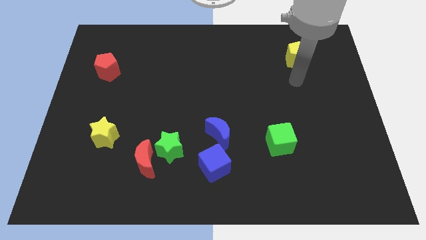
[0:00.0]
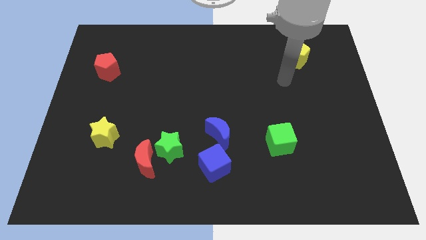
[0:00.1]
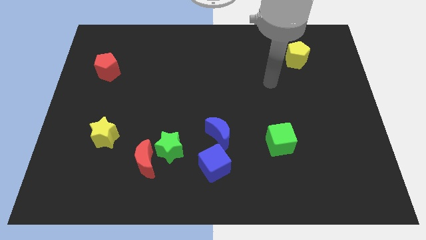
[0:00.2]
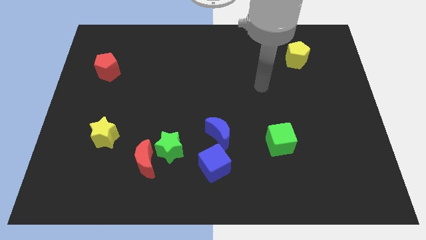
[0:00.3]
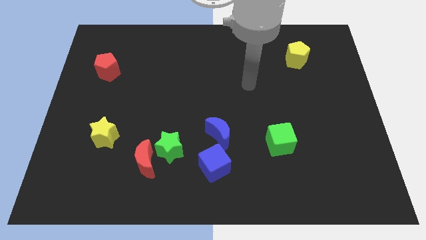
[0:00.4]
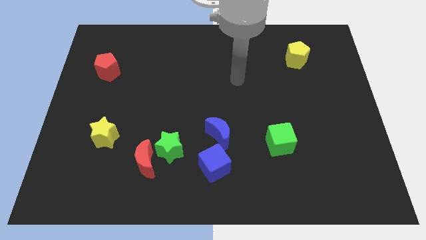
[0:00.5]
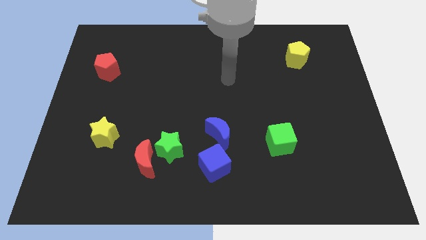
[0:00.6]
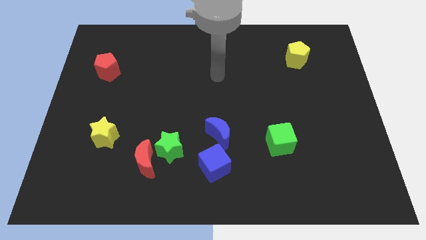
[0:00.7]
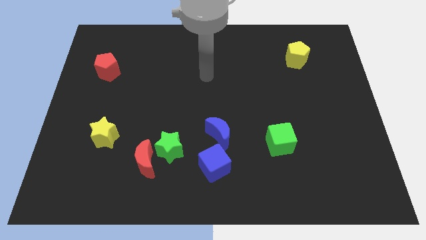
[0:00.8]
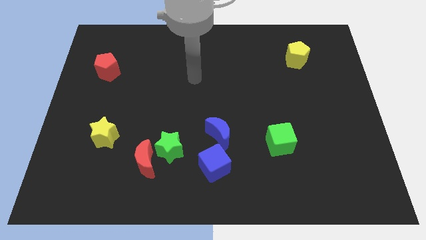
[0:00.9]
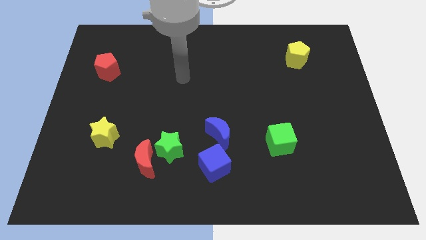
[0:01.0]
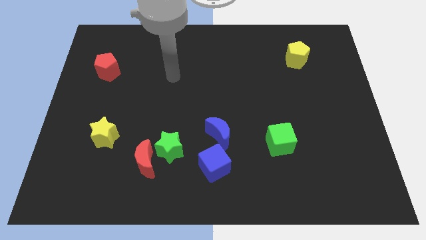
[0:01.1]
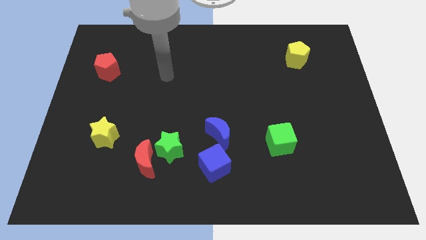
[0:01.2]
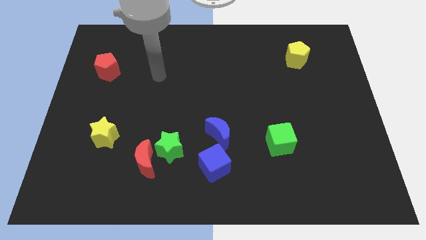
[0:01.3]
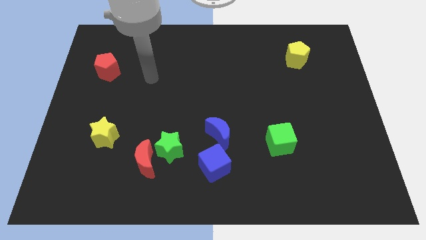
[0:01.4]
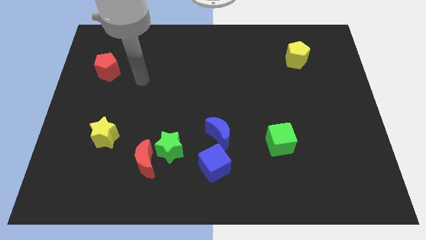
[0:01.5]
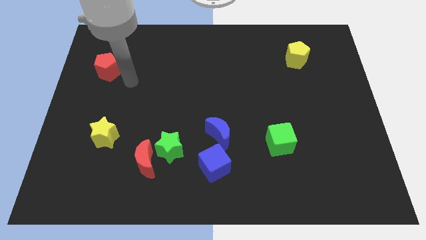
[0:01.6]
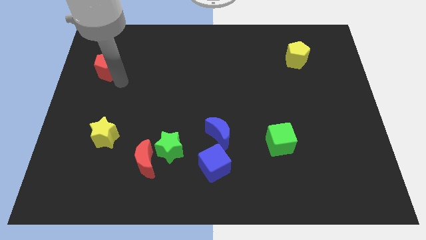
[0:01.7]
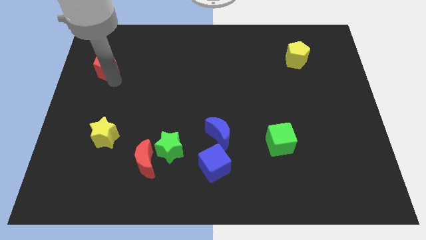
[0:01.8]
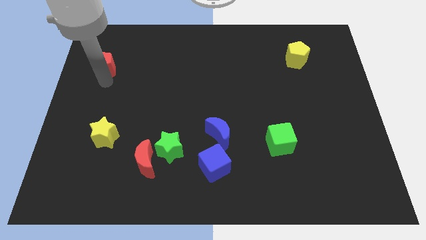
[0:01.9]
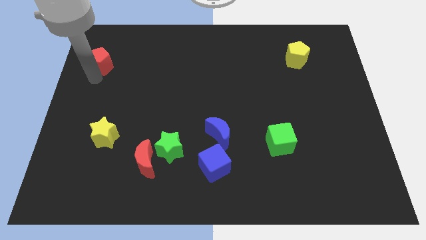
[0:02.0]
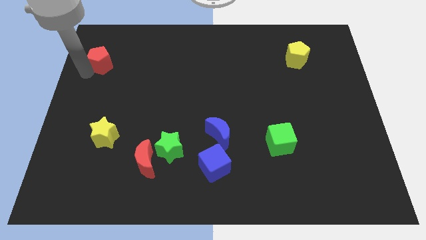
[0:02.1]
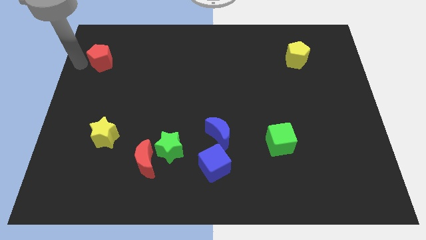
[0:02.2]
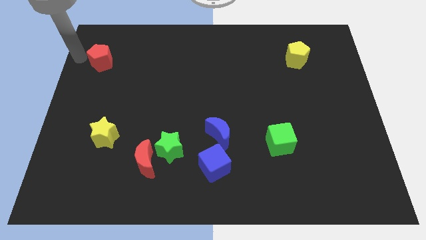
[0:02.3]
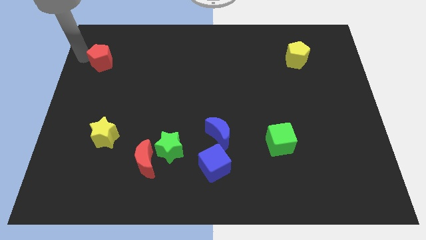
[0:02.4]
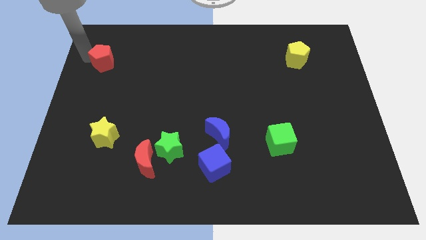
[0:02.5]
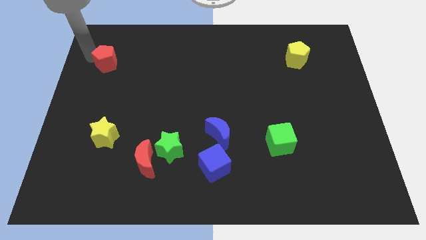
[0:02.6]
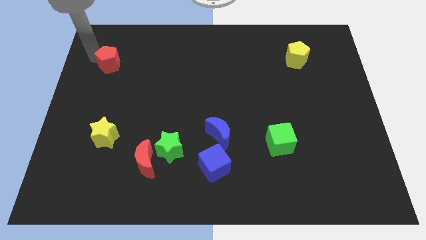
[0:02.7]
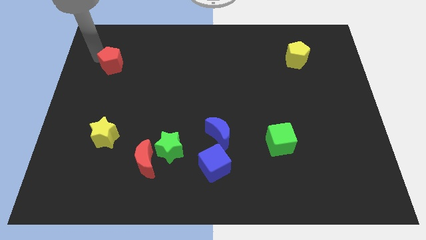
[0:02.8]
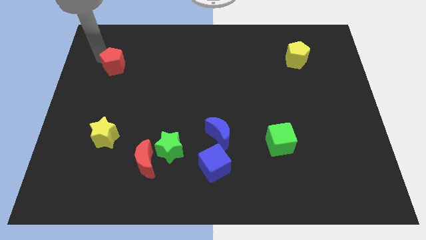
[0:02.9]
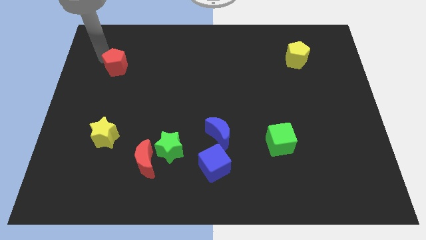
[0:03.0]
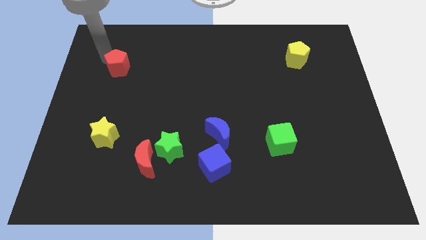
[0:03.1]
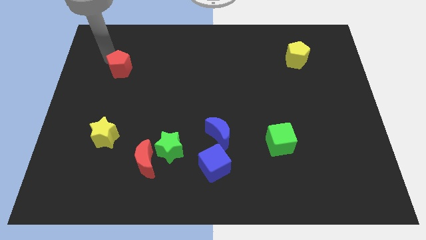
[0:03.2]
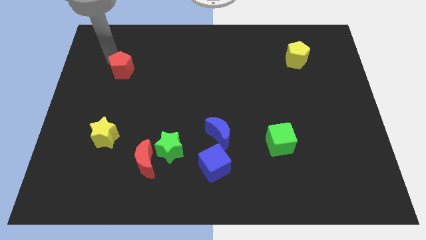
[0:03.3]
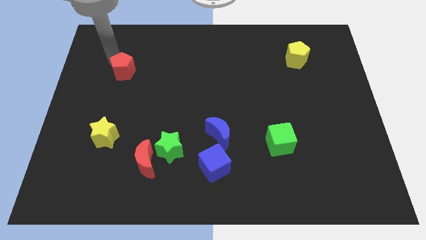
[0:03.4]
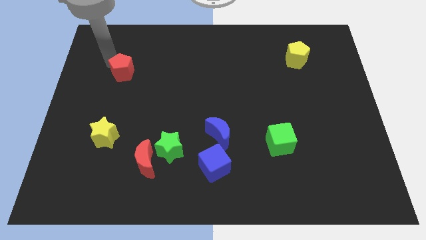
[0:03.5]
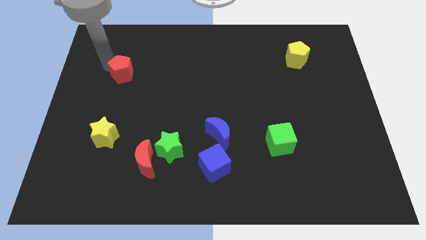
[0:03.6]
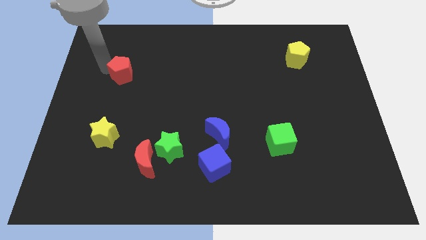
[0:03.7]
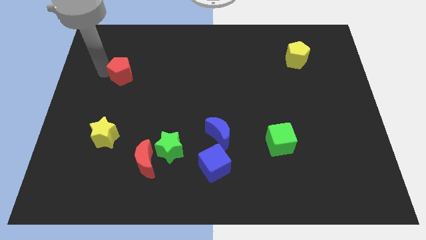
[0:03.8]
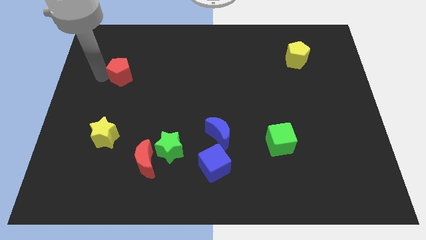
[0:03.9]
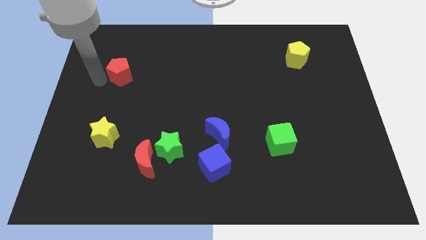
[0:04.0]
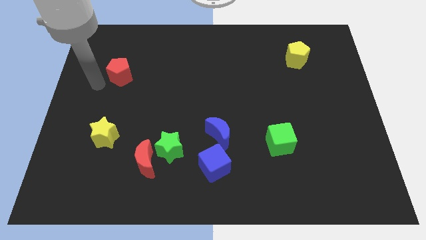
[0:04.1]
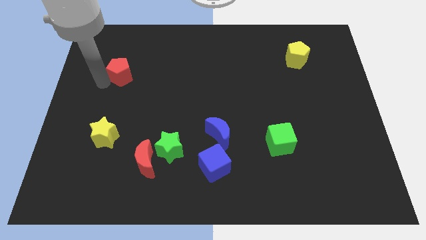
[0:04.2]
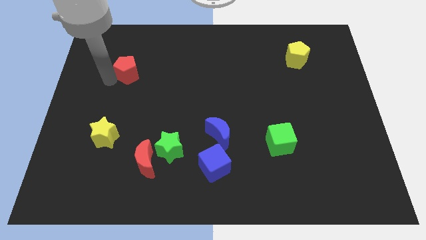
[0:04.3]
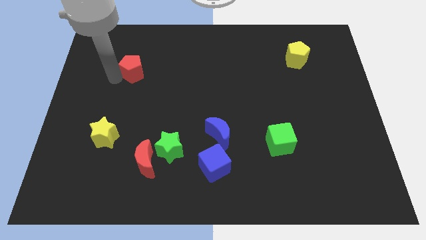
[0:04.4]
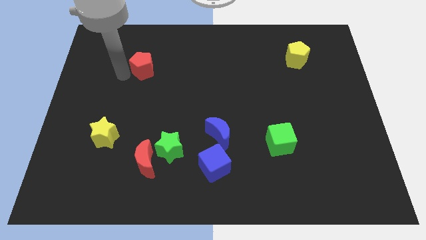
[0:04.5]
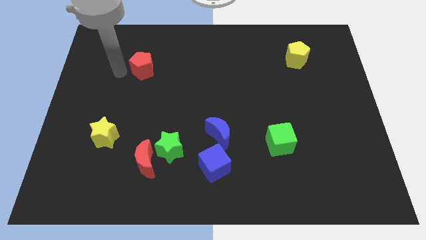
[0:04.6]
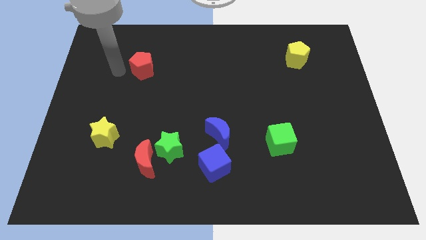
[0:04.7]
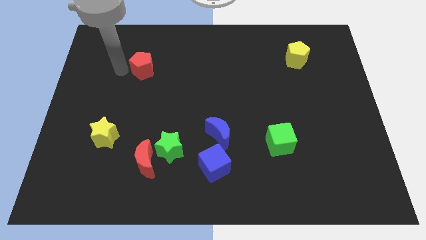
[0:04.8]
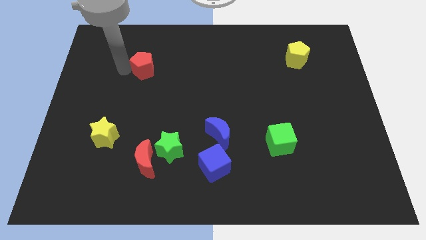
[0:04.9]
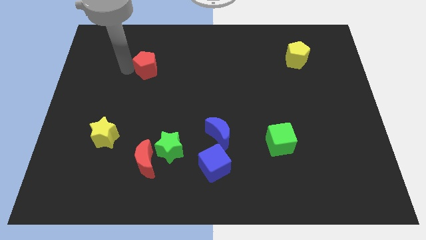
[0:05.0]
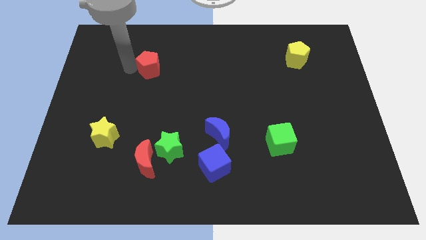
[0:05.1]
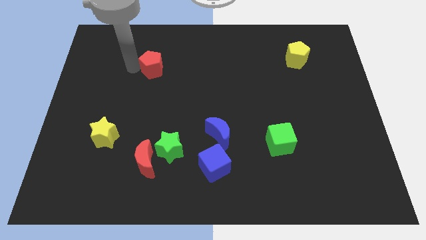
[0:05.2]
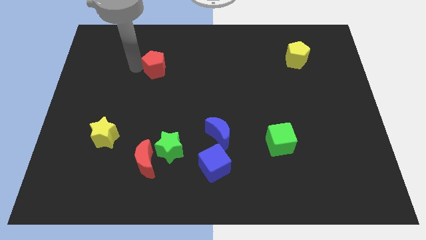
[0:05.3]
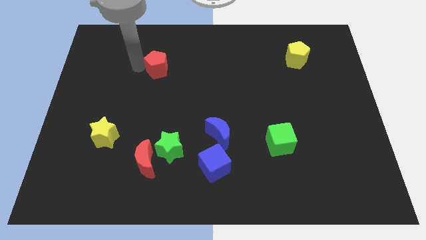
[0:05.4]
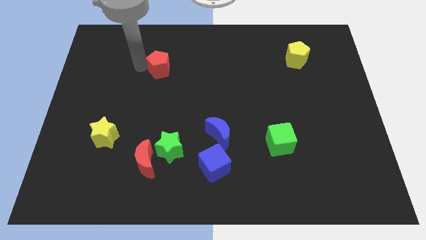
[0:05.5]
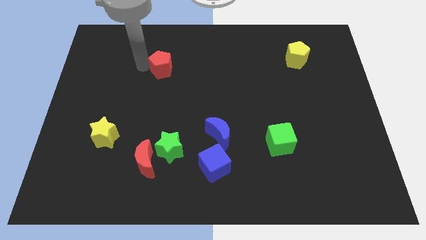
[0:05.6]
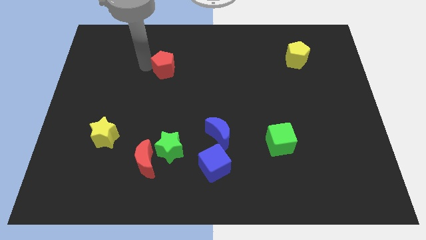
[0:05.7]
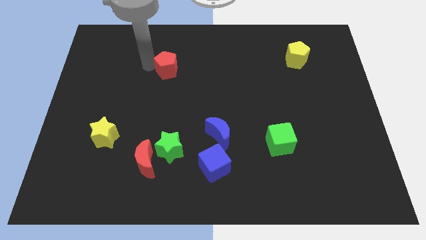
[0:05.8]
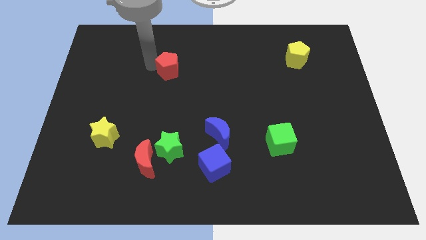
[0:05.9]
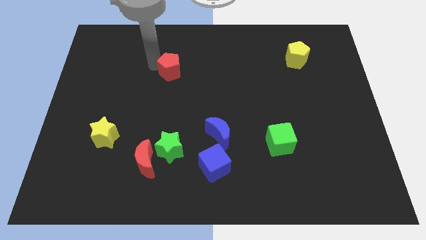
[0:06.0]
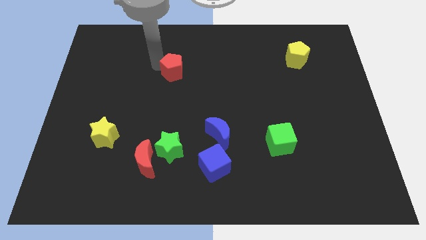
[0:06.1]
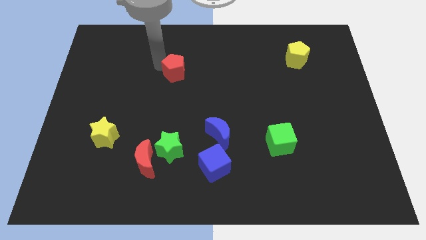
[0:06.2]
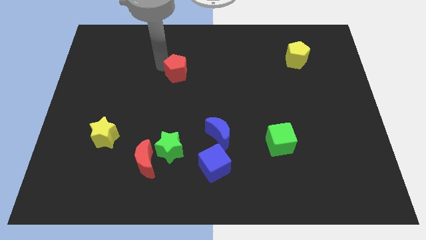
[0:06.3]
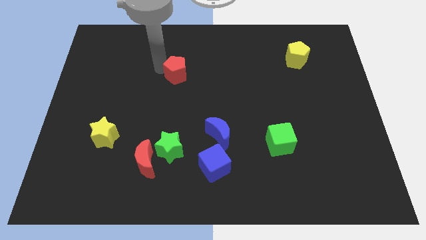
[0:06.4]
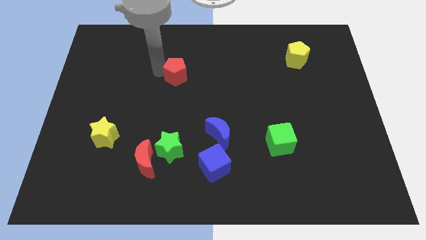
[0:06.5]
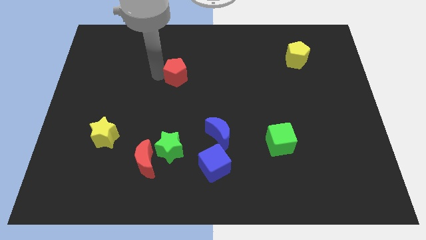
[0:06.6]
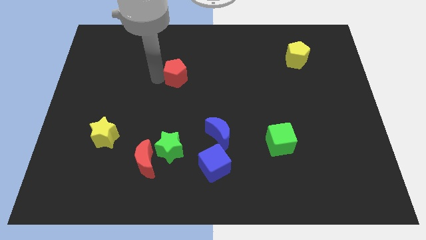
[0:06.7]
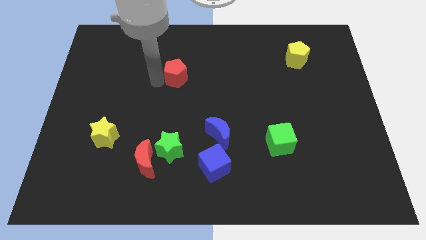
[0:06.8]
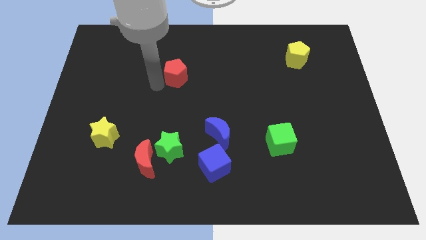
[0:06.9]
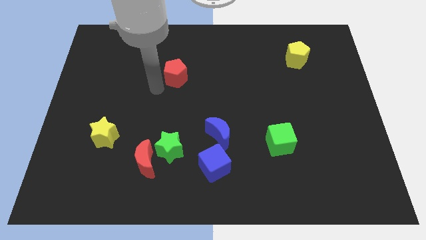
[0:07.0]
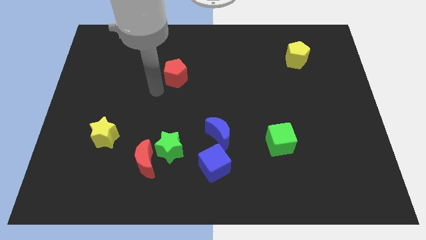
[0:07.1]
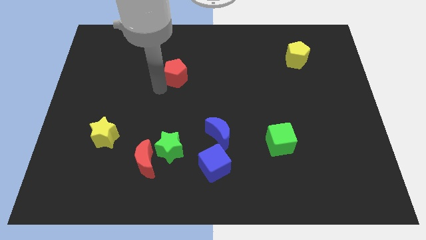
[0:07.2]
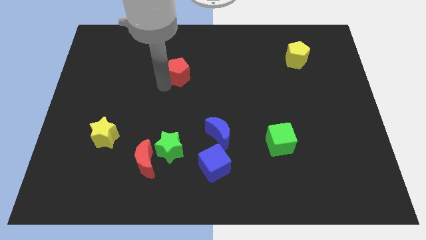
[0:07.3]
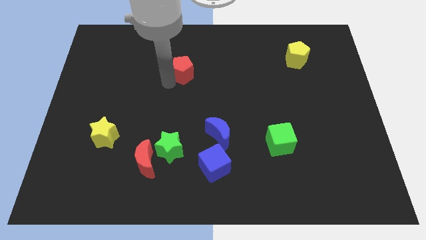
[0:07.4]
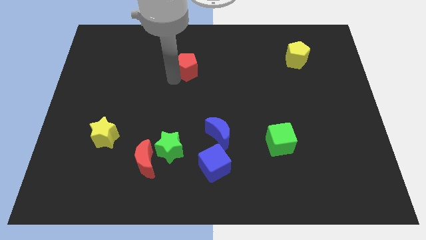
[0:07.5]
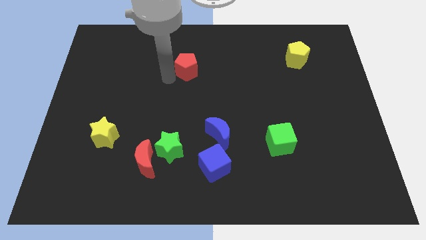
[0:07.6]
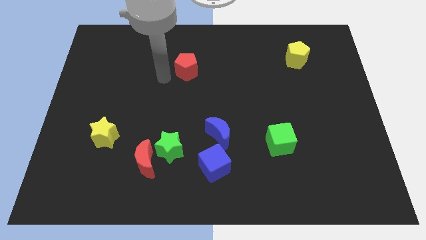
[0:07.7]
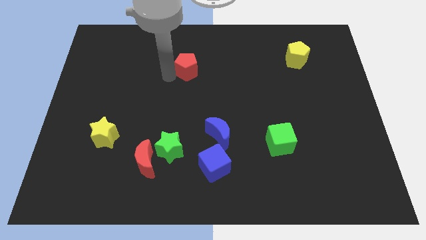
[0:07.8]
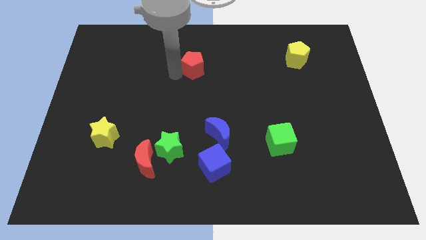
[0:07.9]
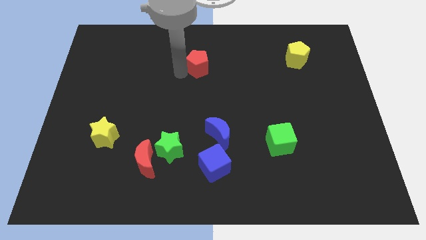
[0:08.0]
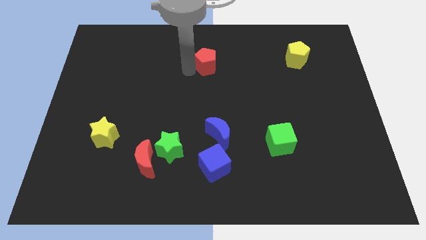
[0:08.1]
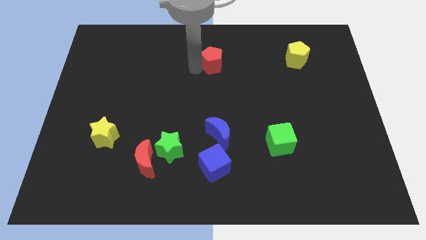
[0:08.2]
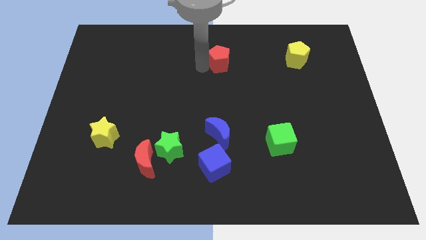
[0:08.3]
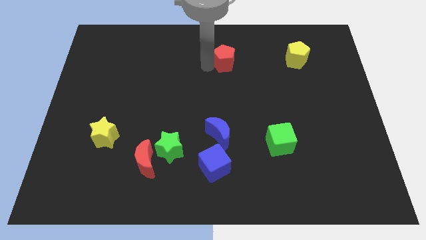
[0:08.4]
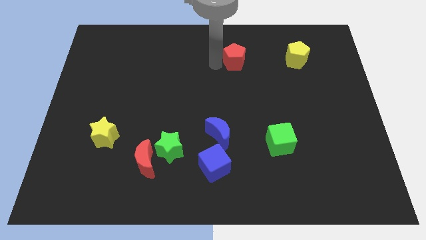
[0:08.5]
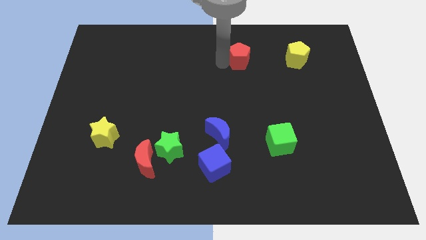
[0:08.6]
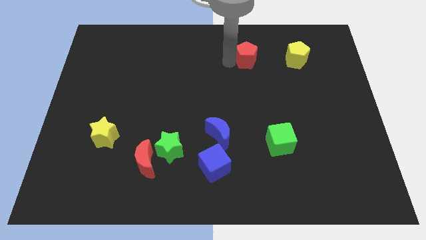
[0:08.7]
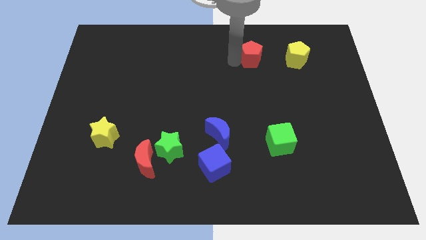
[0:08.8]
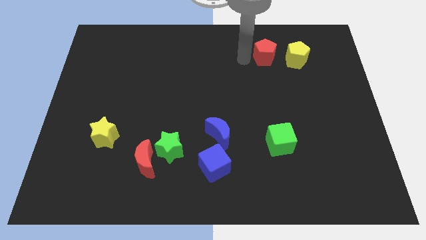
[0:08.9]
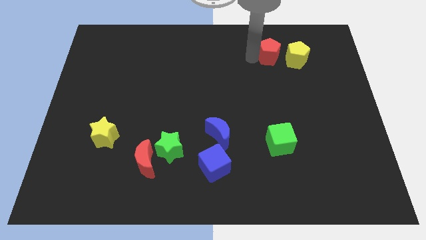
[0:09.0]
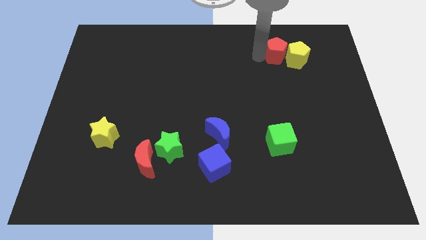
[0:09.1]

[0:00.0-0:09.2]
slide the red pentagon to the yellow pentagon
